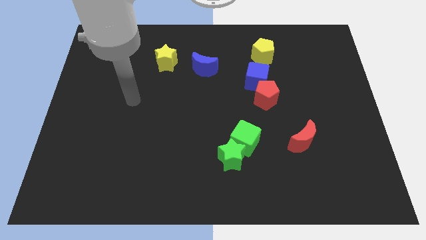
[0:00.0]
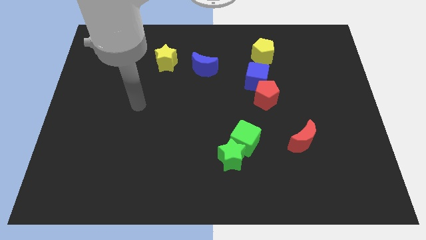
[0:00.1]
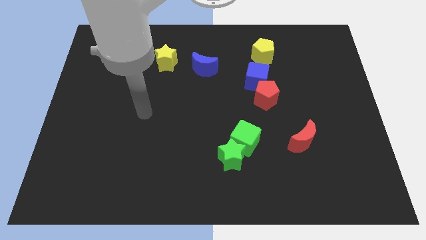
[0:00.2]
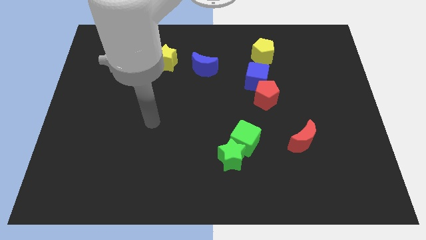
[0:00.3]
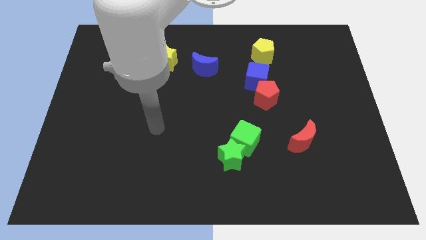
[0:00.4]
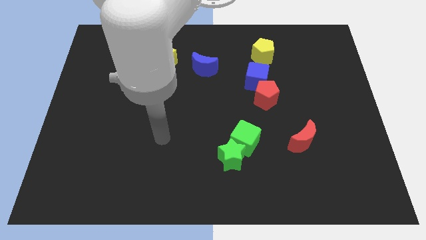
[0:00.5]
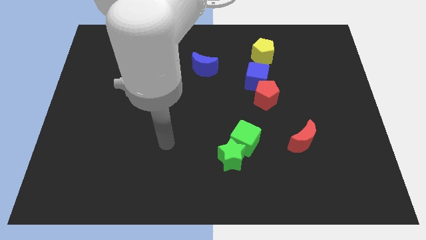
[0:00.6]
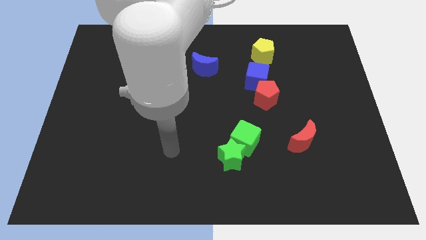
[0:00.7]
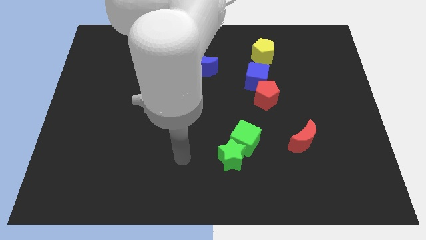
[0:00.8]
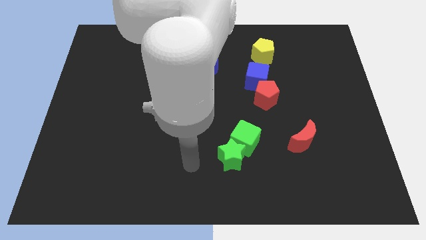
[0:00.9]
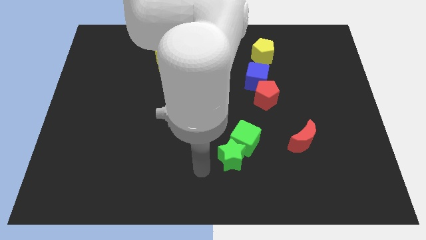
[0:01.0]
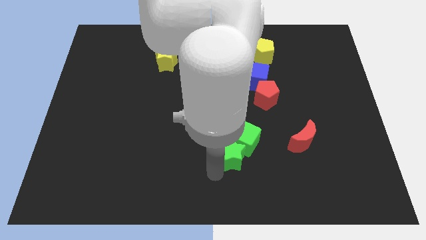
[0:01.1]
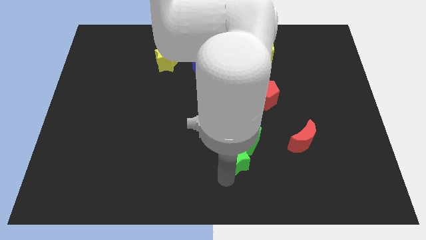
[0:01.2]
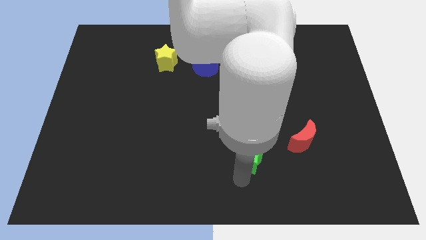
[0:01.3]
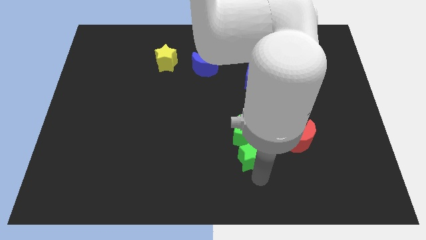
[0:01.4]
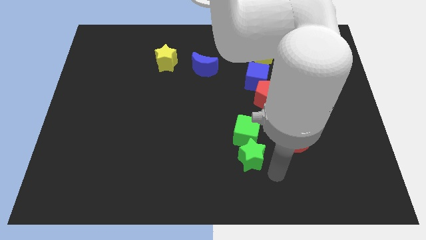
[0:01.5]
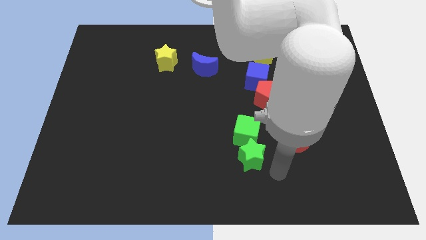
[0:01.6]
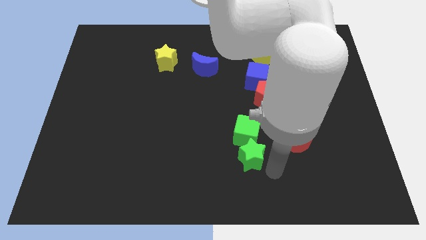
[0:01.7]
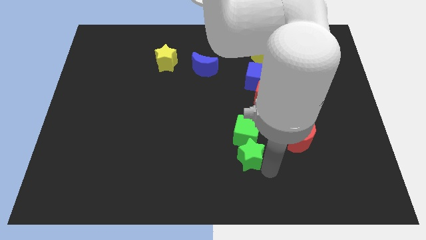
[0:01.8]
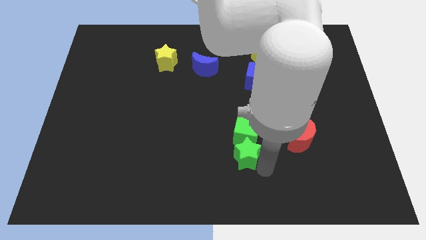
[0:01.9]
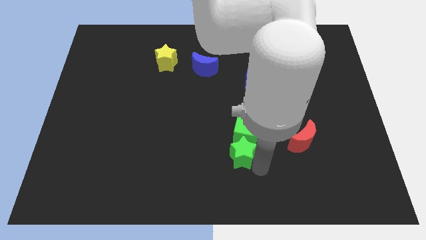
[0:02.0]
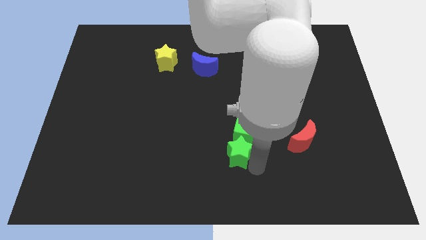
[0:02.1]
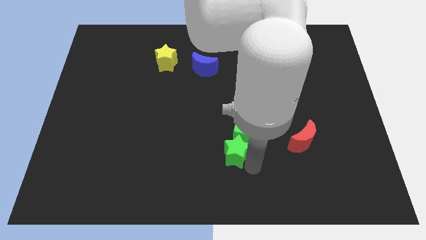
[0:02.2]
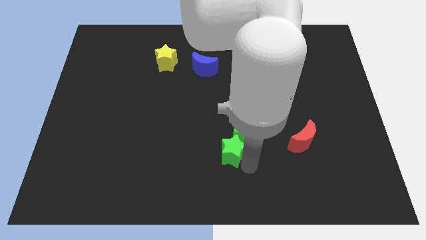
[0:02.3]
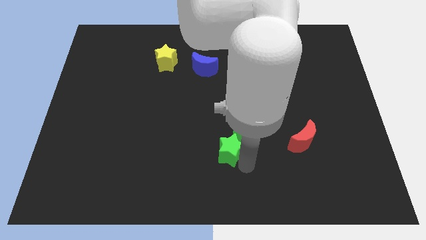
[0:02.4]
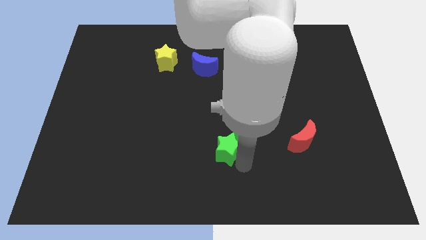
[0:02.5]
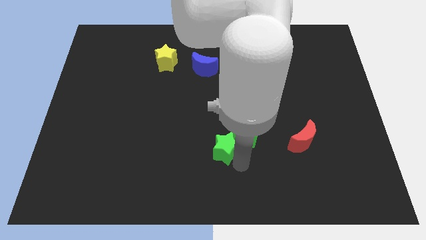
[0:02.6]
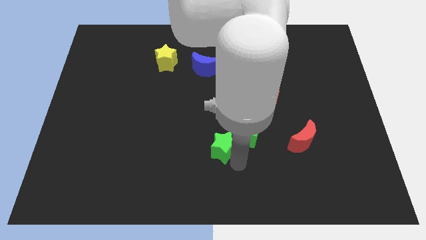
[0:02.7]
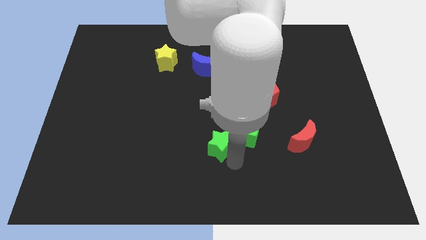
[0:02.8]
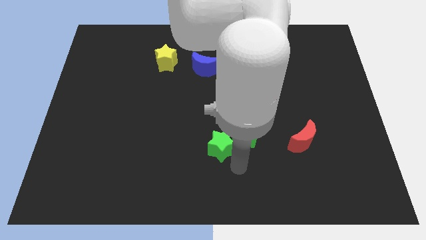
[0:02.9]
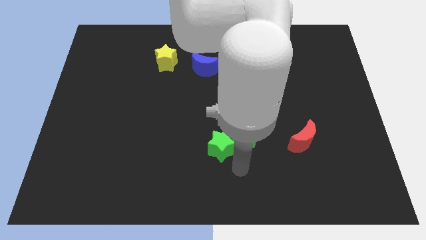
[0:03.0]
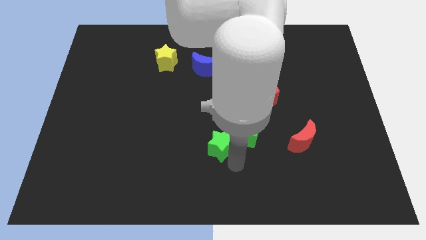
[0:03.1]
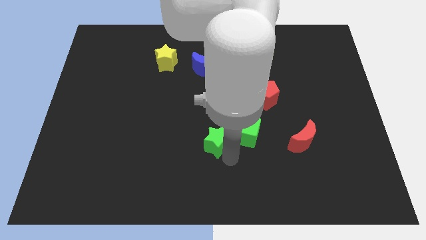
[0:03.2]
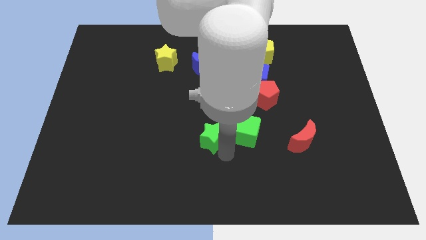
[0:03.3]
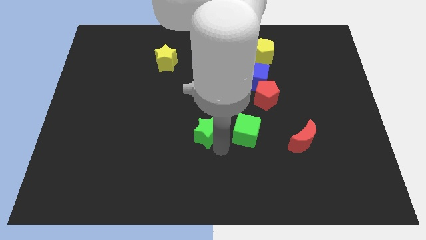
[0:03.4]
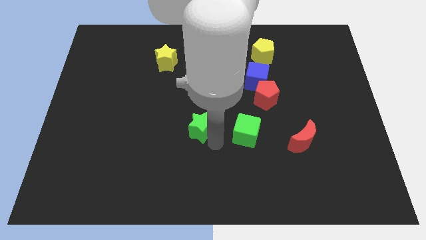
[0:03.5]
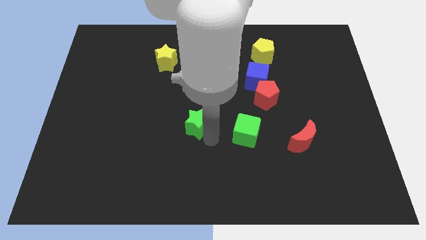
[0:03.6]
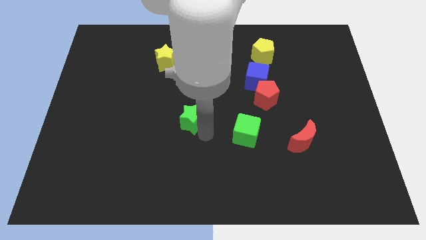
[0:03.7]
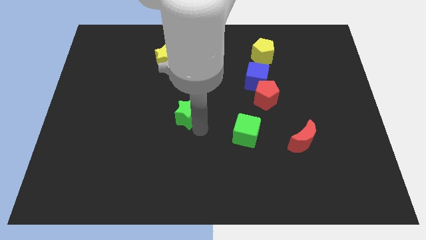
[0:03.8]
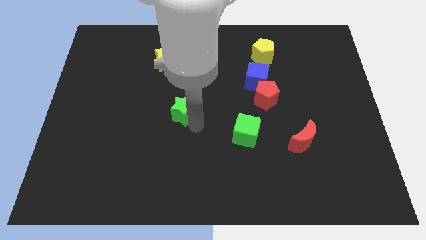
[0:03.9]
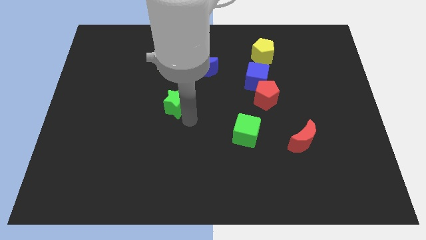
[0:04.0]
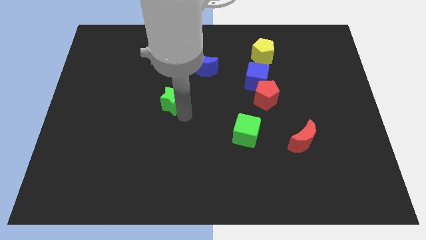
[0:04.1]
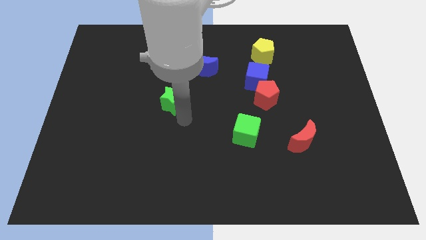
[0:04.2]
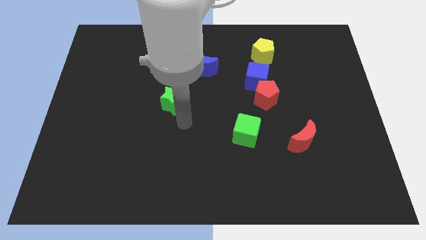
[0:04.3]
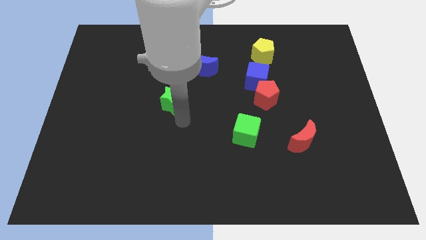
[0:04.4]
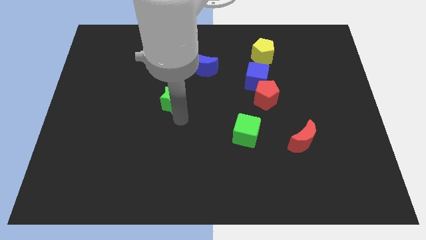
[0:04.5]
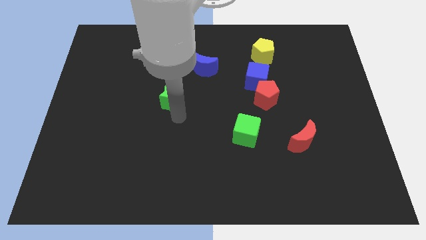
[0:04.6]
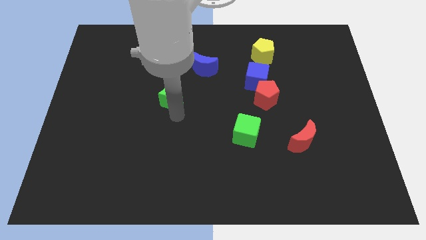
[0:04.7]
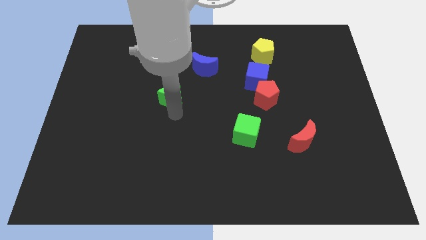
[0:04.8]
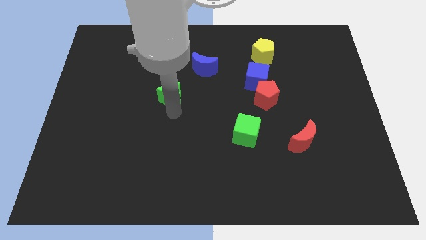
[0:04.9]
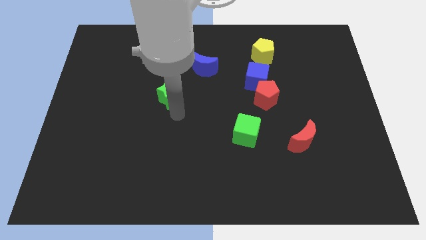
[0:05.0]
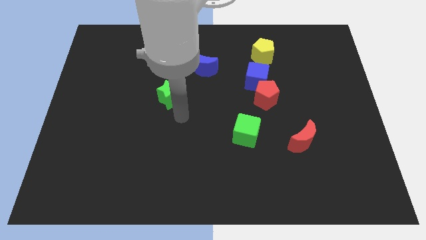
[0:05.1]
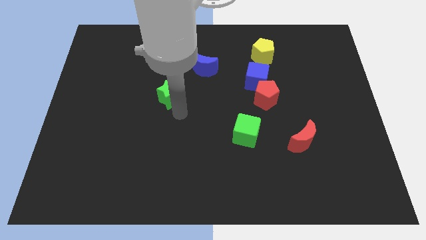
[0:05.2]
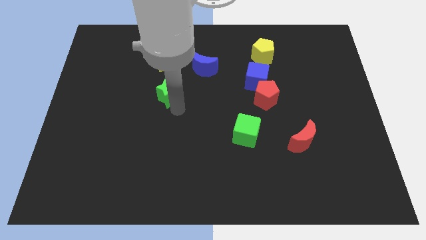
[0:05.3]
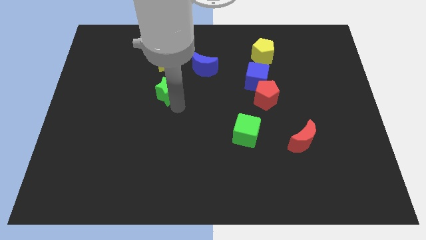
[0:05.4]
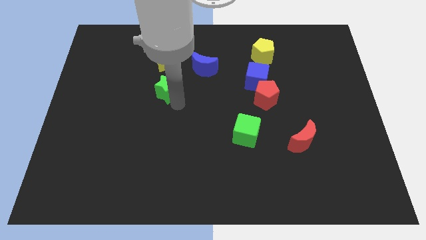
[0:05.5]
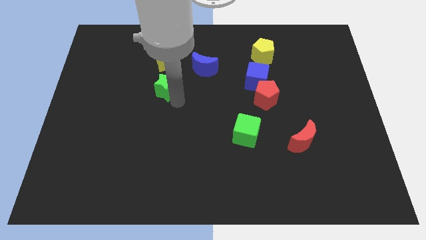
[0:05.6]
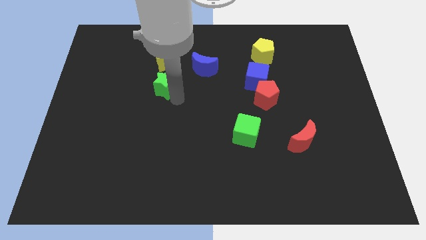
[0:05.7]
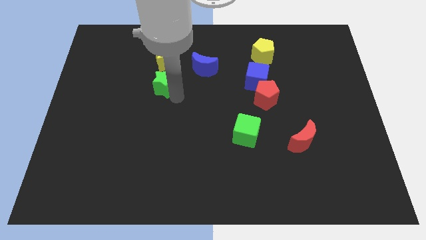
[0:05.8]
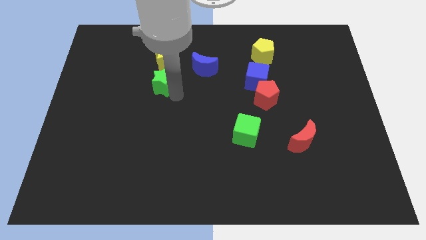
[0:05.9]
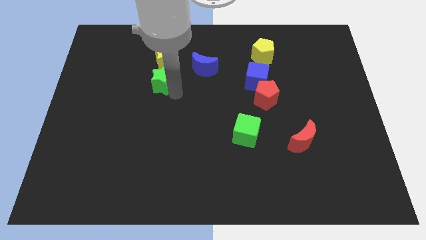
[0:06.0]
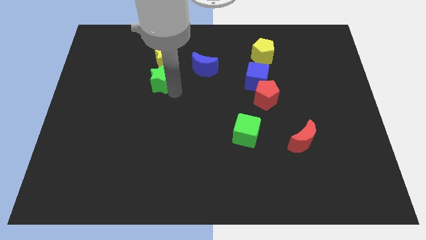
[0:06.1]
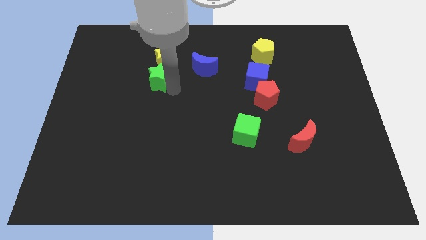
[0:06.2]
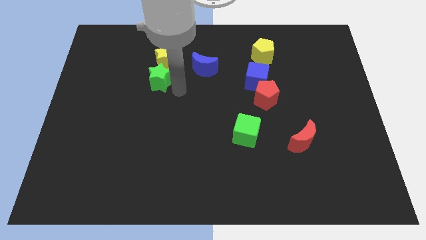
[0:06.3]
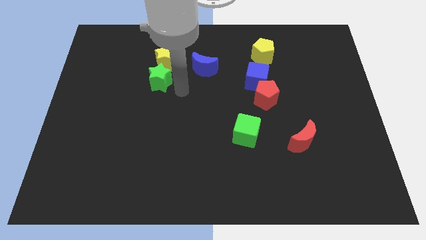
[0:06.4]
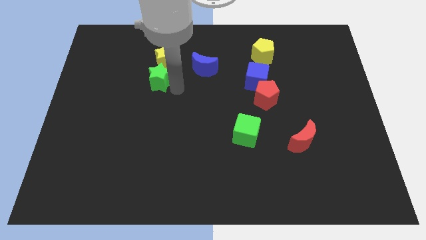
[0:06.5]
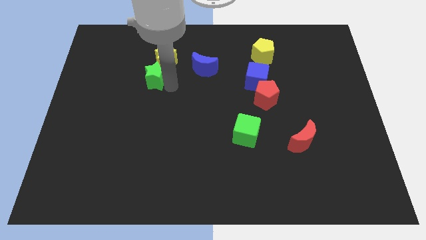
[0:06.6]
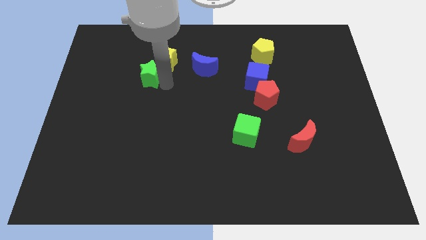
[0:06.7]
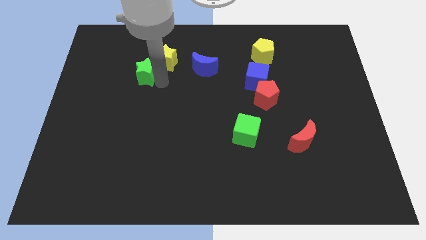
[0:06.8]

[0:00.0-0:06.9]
move the green star to the left of the yellow star

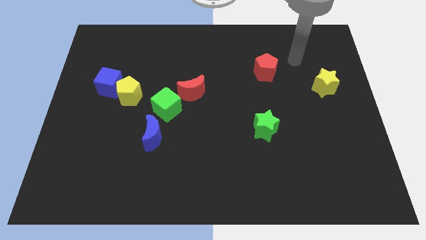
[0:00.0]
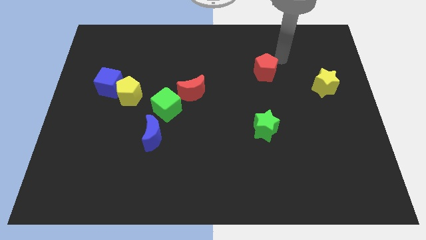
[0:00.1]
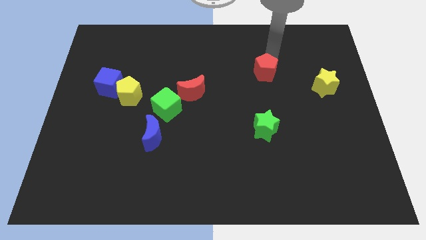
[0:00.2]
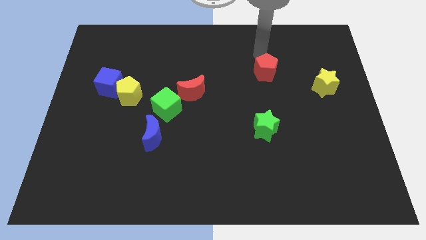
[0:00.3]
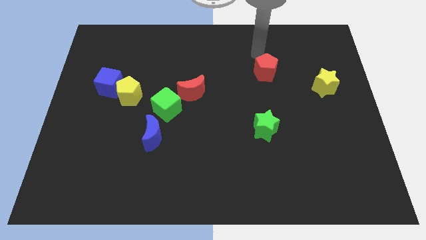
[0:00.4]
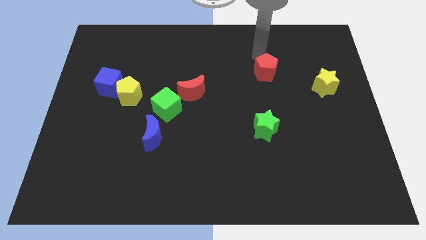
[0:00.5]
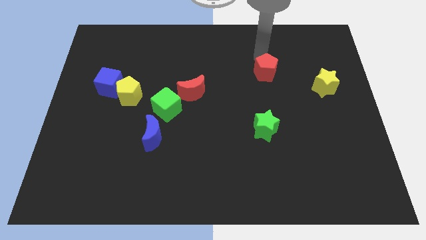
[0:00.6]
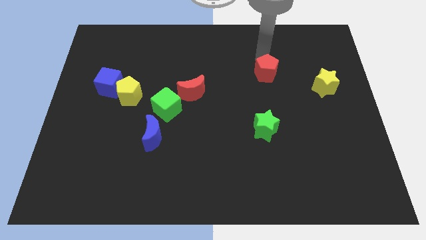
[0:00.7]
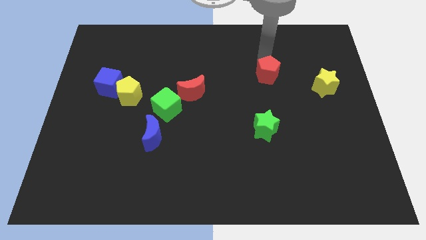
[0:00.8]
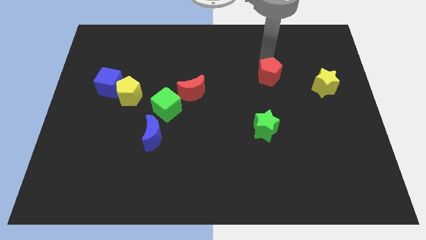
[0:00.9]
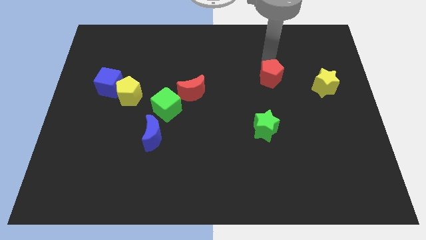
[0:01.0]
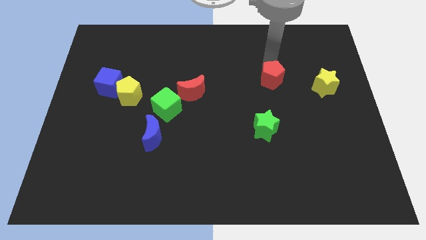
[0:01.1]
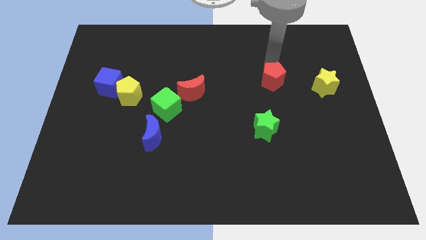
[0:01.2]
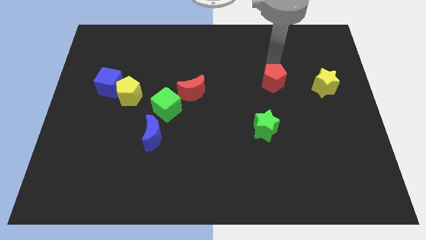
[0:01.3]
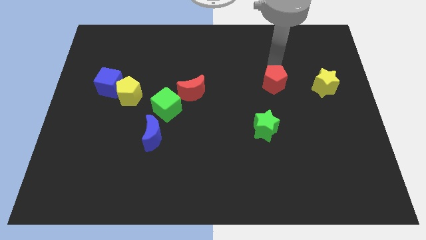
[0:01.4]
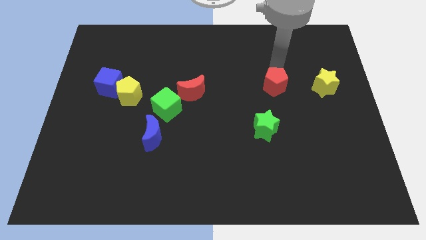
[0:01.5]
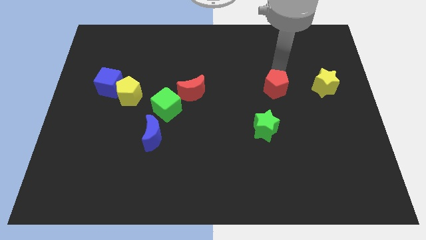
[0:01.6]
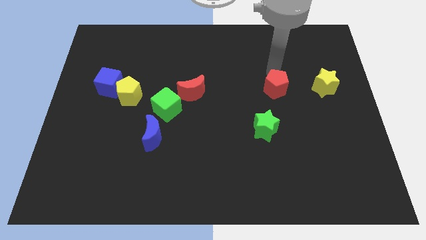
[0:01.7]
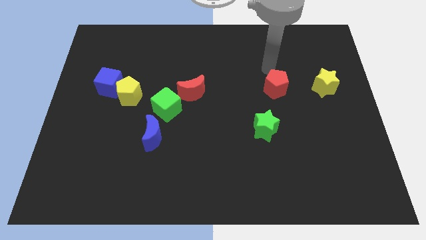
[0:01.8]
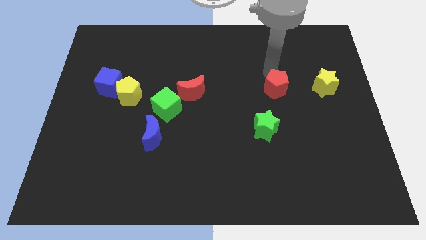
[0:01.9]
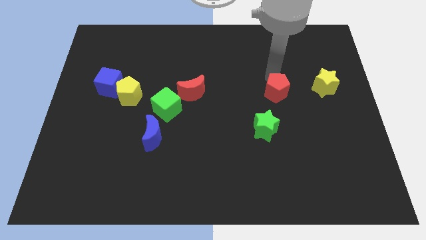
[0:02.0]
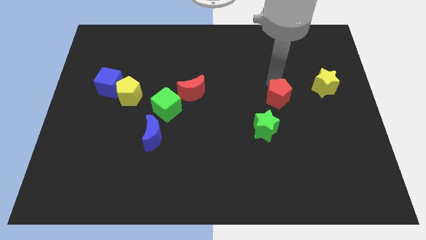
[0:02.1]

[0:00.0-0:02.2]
put the red pentagon to the top right side of the green star
